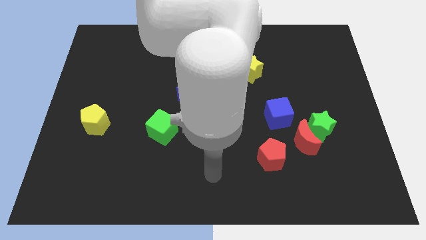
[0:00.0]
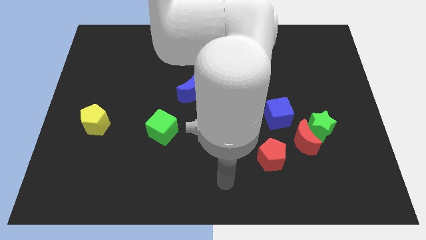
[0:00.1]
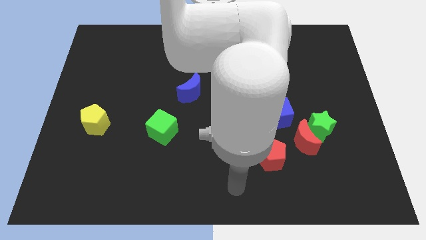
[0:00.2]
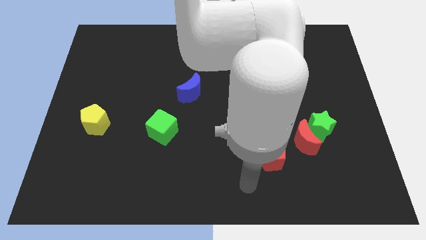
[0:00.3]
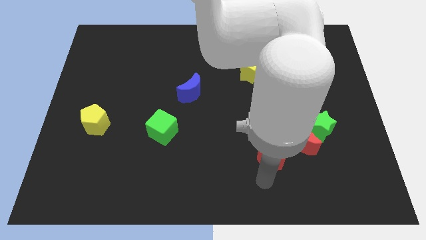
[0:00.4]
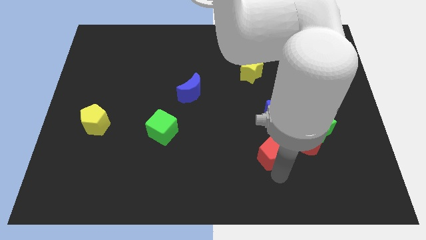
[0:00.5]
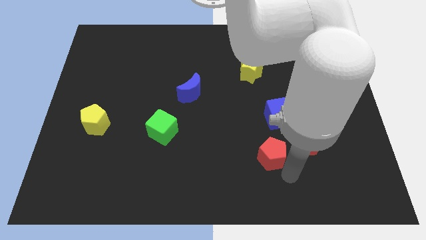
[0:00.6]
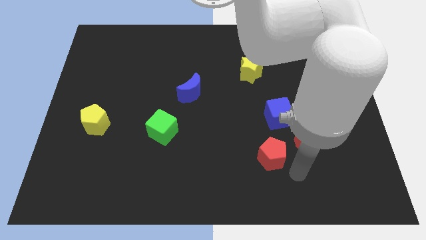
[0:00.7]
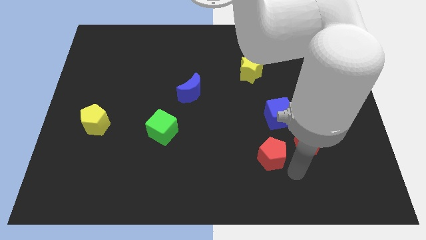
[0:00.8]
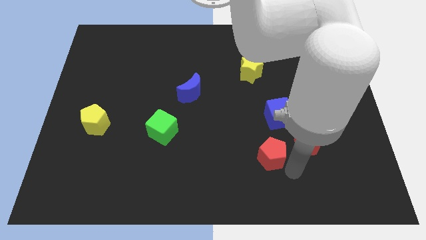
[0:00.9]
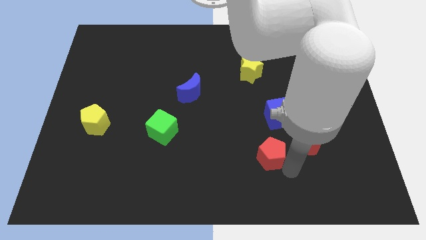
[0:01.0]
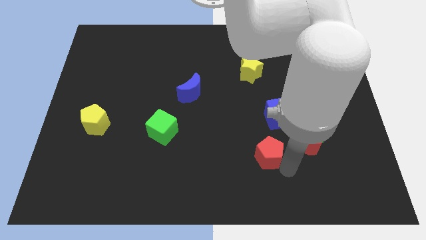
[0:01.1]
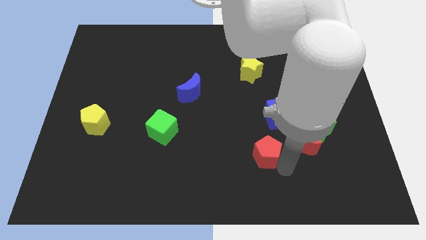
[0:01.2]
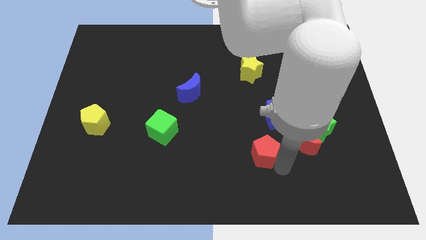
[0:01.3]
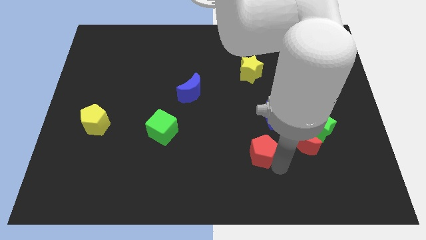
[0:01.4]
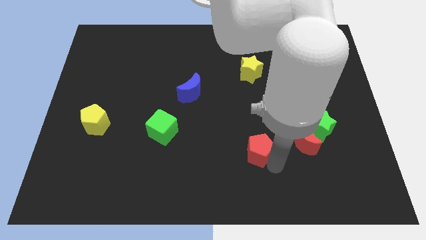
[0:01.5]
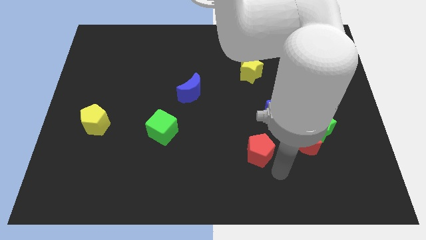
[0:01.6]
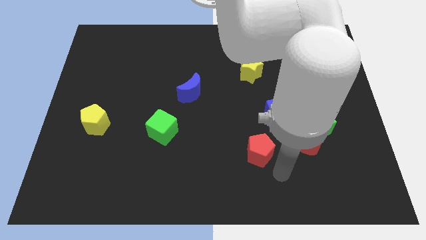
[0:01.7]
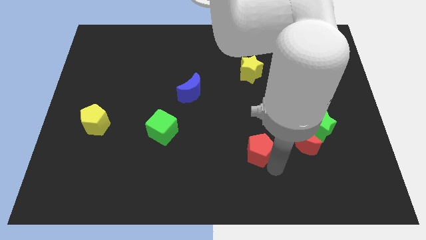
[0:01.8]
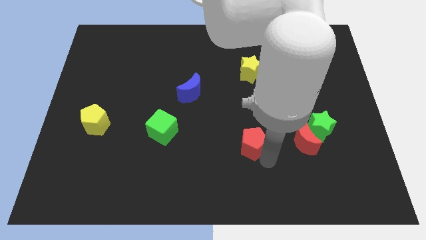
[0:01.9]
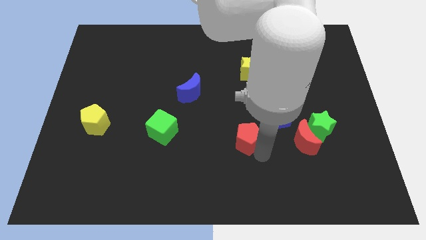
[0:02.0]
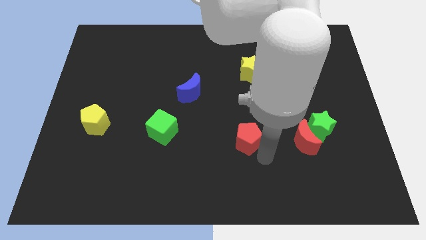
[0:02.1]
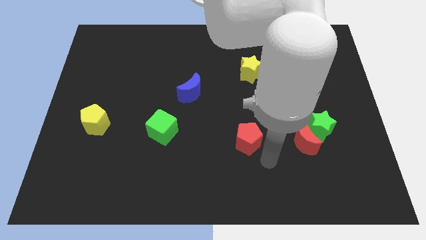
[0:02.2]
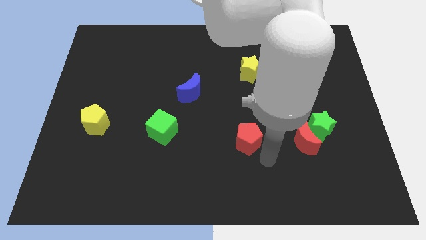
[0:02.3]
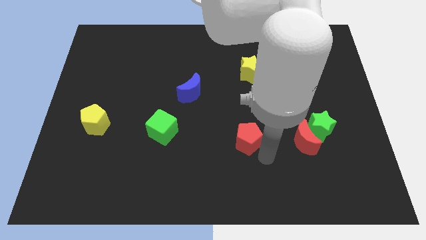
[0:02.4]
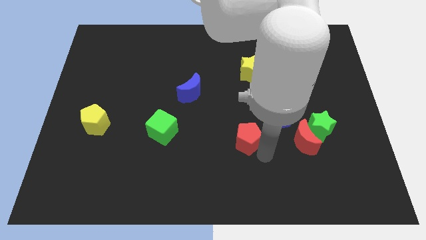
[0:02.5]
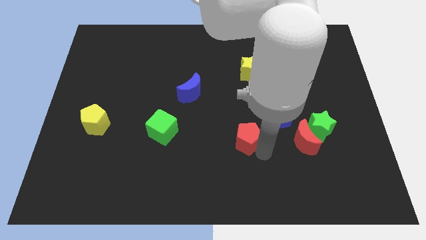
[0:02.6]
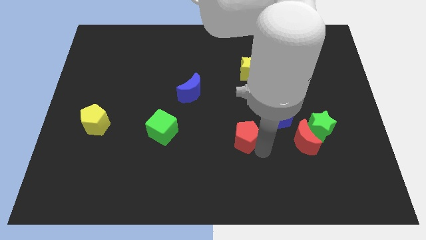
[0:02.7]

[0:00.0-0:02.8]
push the red pentagon slightly up and then to the left

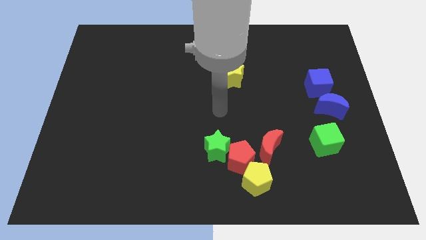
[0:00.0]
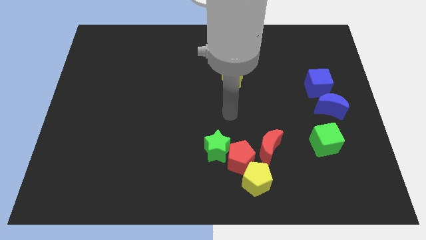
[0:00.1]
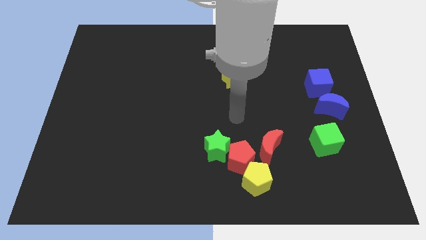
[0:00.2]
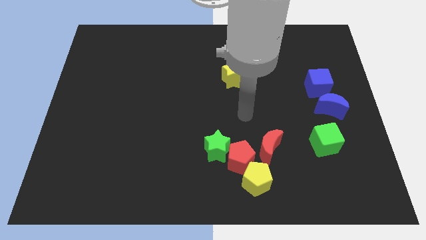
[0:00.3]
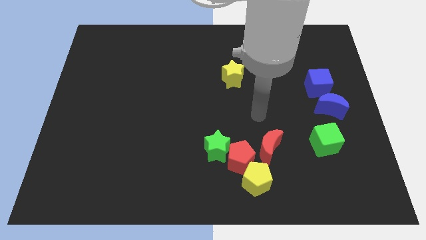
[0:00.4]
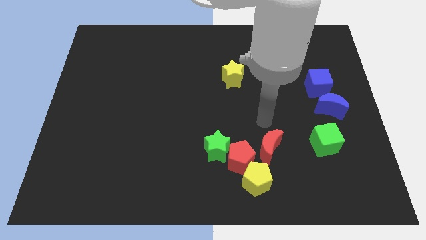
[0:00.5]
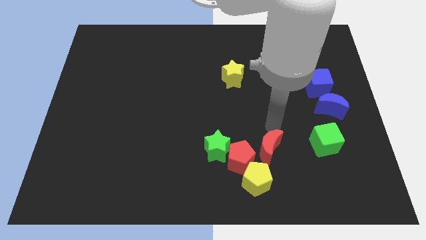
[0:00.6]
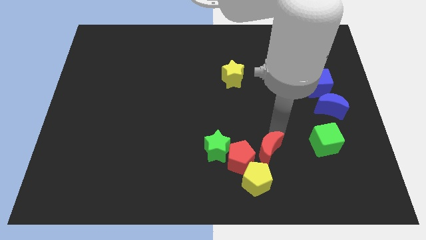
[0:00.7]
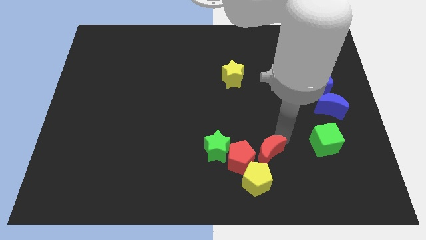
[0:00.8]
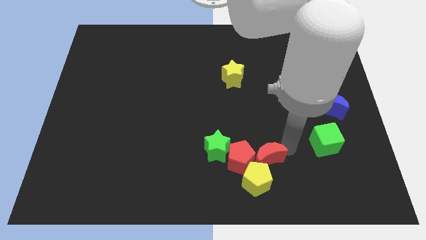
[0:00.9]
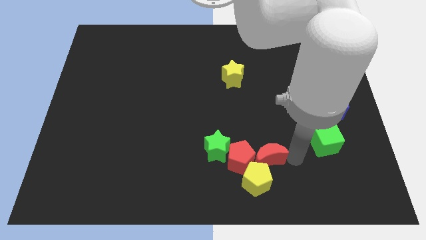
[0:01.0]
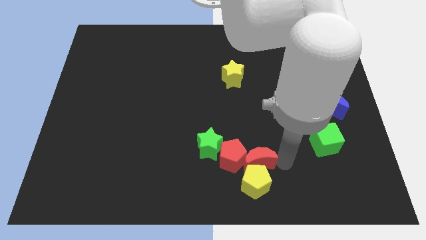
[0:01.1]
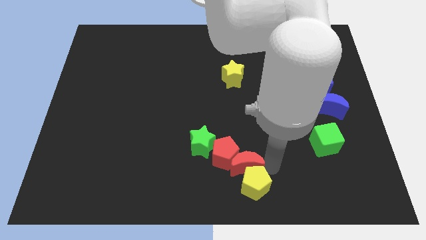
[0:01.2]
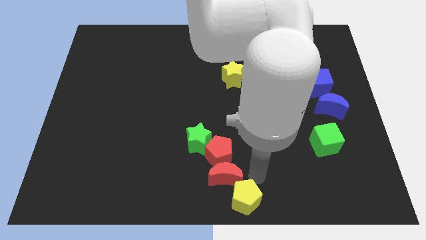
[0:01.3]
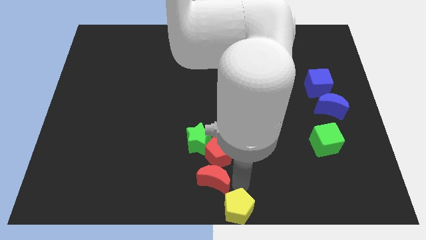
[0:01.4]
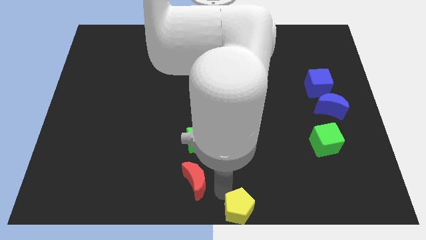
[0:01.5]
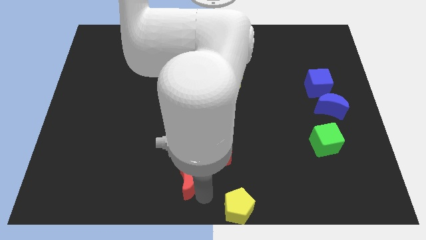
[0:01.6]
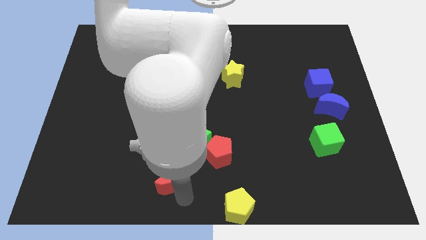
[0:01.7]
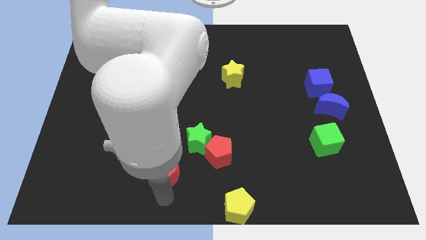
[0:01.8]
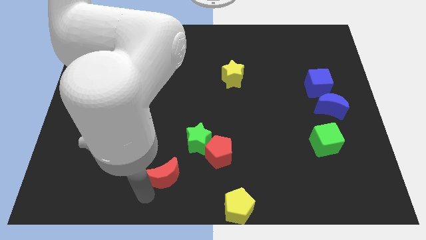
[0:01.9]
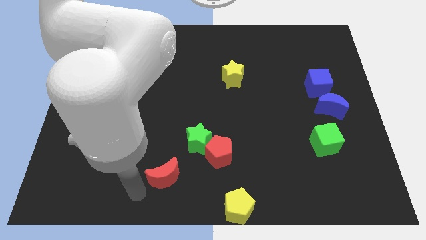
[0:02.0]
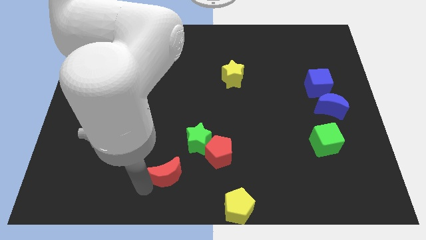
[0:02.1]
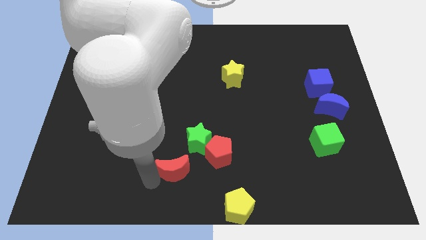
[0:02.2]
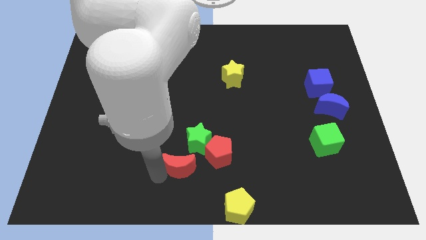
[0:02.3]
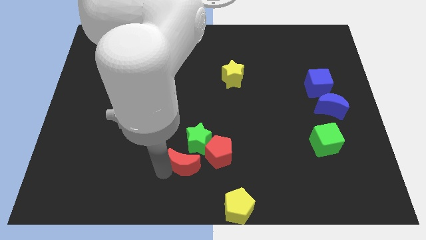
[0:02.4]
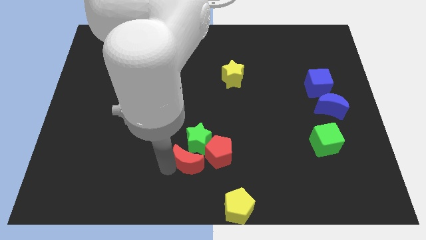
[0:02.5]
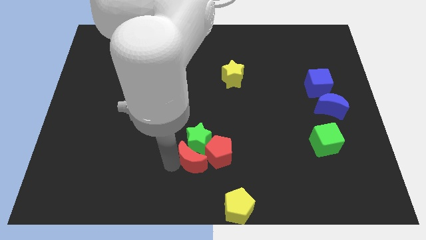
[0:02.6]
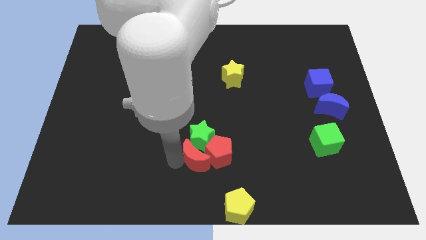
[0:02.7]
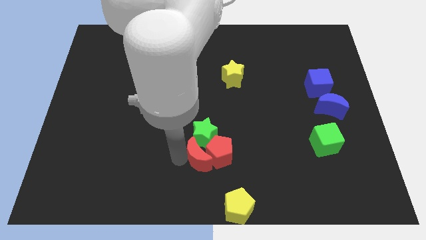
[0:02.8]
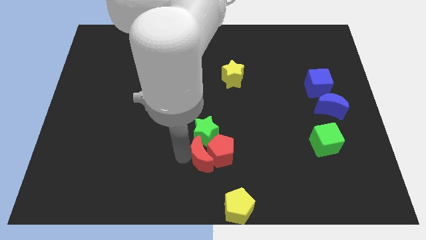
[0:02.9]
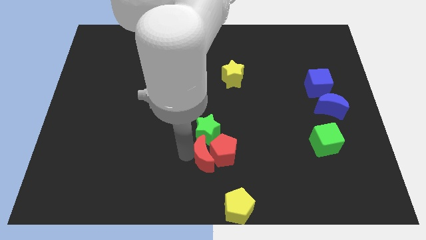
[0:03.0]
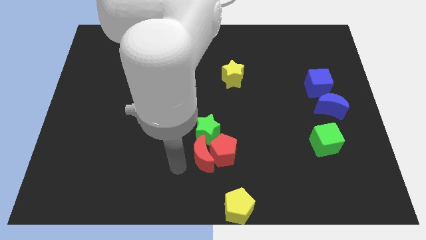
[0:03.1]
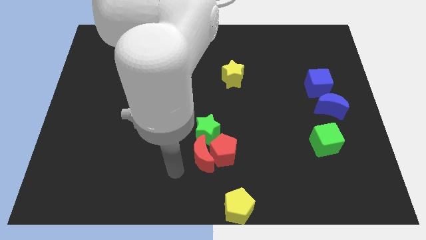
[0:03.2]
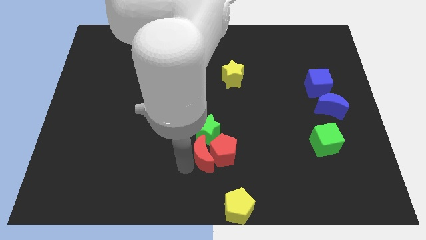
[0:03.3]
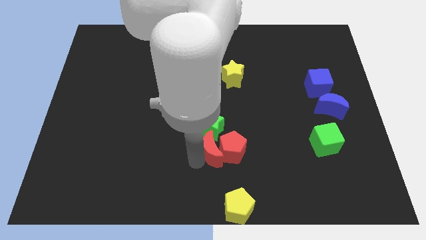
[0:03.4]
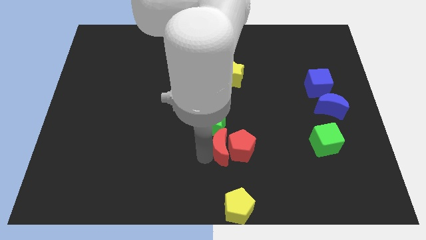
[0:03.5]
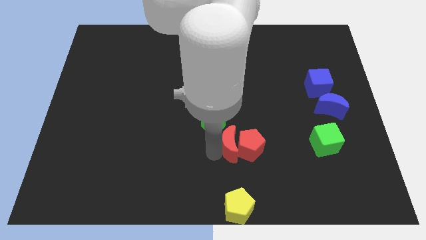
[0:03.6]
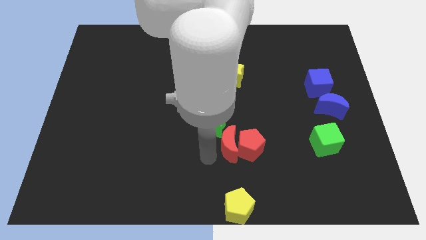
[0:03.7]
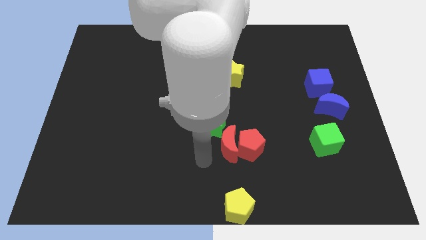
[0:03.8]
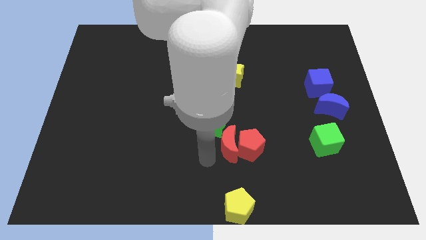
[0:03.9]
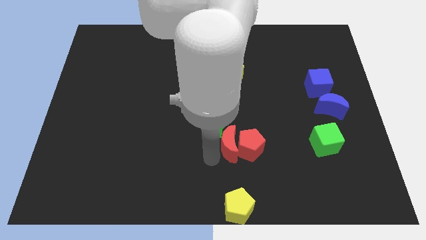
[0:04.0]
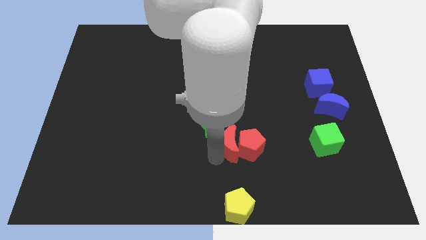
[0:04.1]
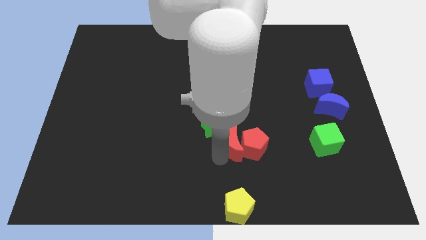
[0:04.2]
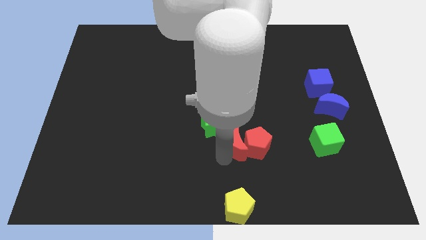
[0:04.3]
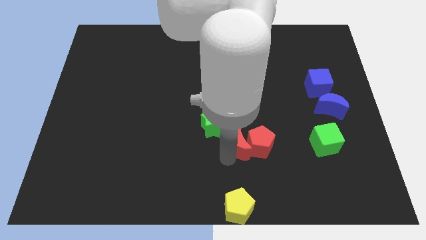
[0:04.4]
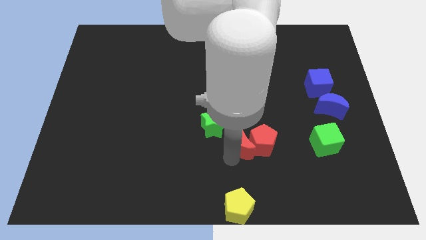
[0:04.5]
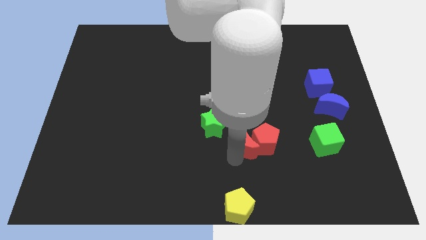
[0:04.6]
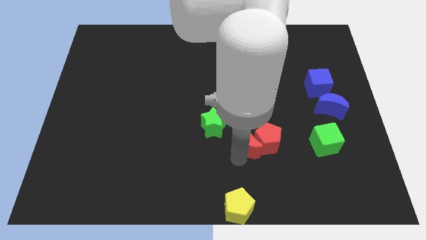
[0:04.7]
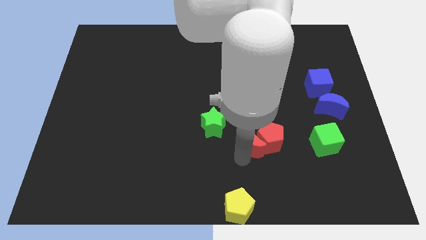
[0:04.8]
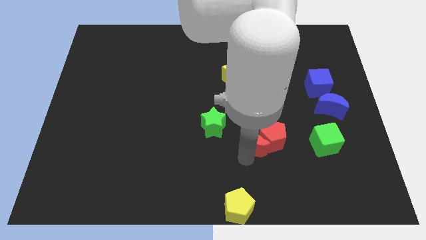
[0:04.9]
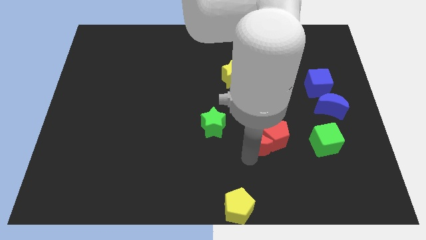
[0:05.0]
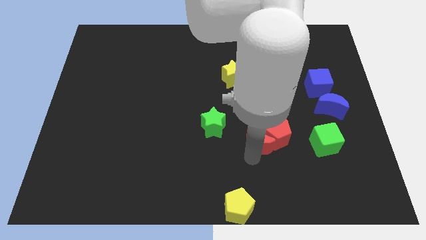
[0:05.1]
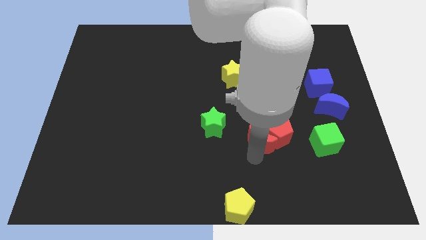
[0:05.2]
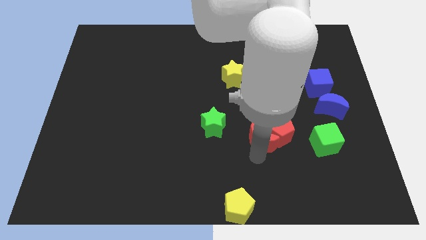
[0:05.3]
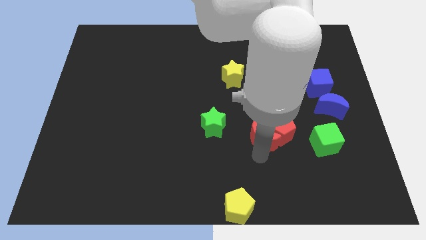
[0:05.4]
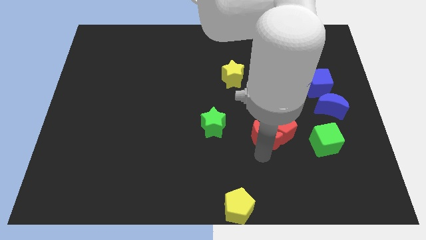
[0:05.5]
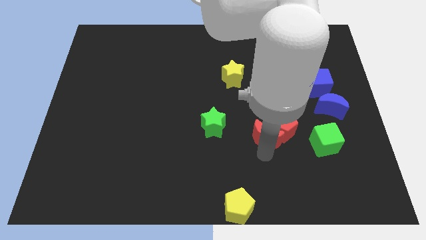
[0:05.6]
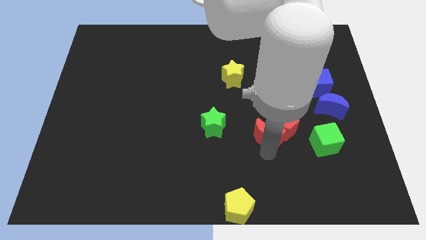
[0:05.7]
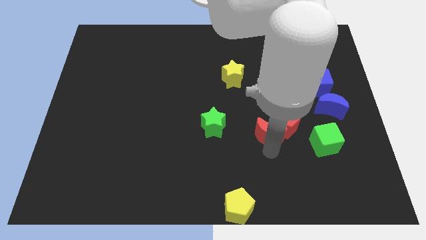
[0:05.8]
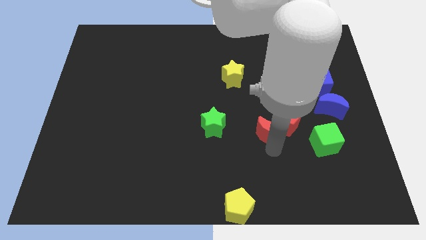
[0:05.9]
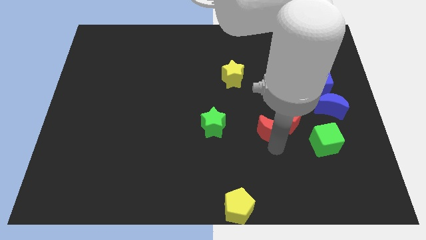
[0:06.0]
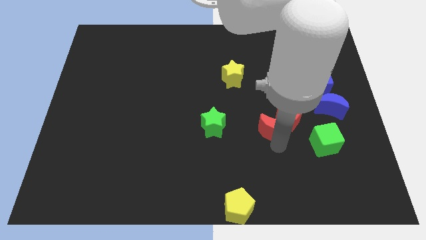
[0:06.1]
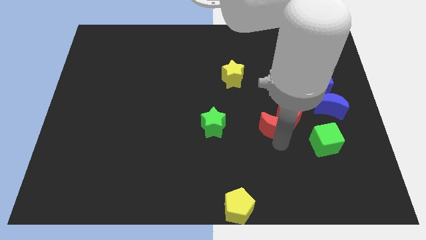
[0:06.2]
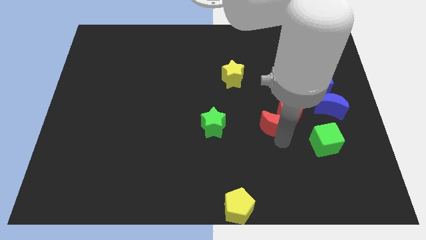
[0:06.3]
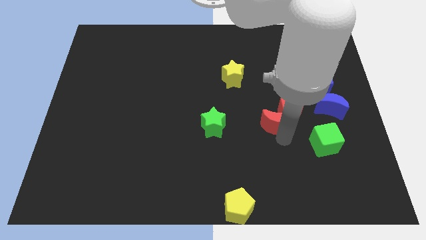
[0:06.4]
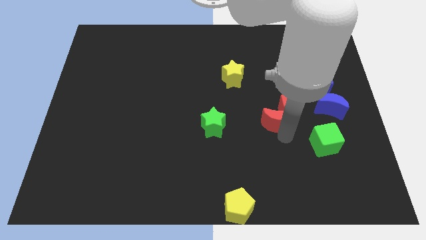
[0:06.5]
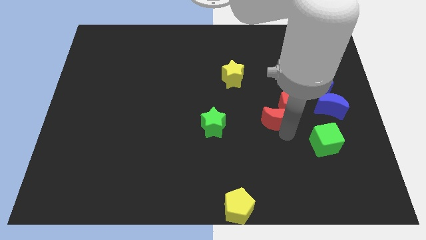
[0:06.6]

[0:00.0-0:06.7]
slide the red moon a little bit up
